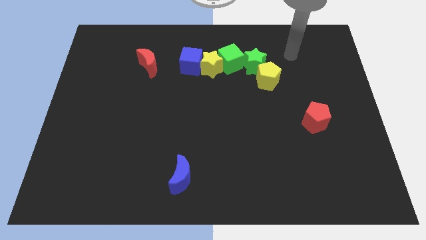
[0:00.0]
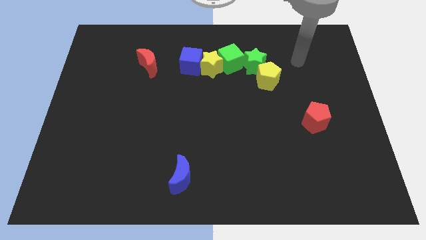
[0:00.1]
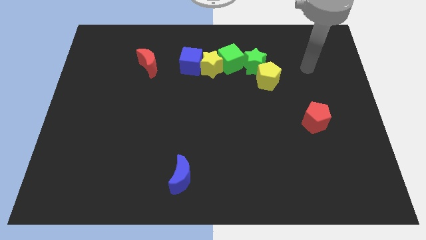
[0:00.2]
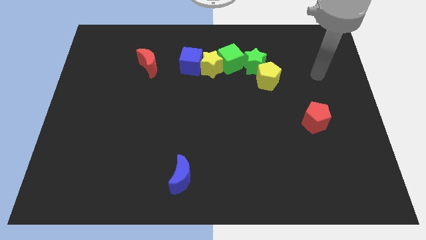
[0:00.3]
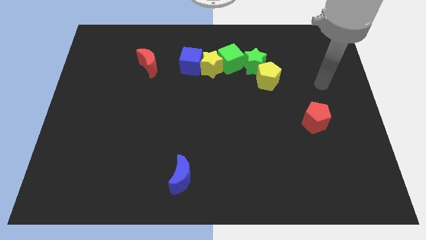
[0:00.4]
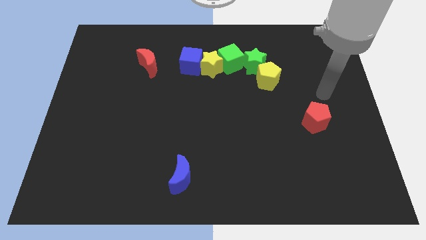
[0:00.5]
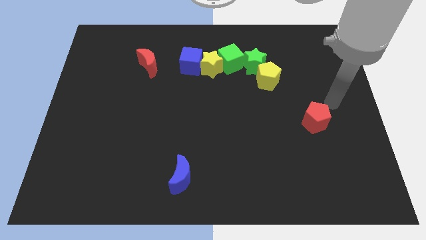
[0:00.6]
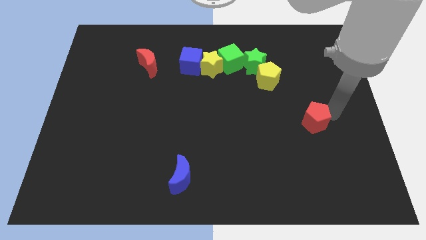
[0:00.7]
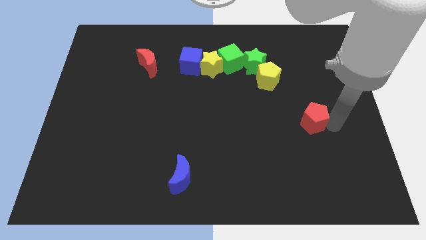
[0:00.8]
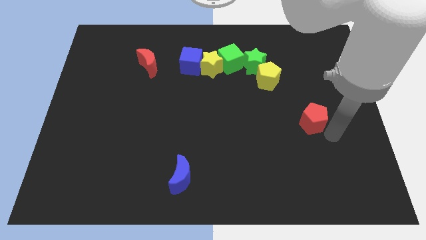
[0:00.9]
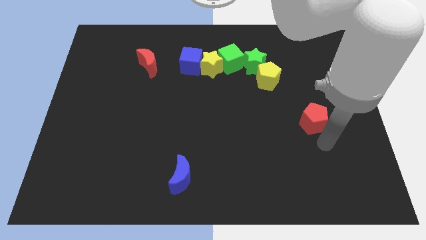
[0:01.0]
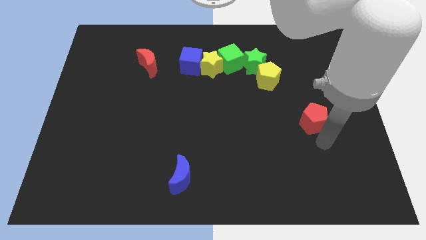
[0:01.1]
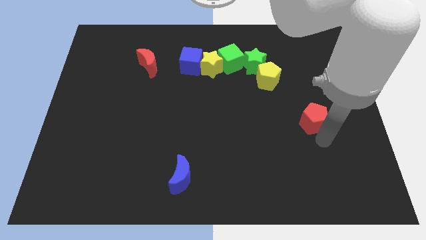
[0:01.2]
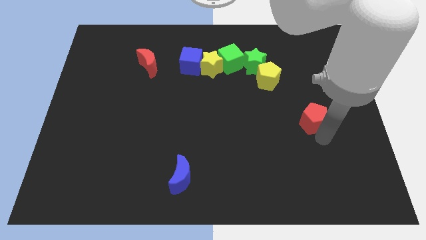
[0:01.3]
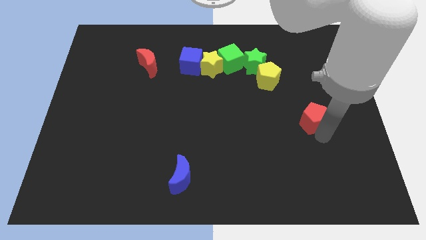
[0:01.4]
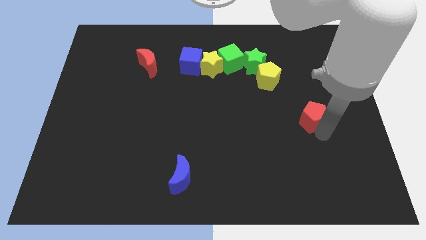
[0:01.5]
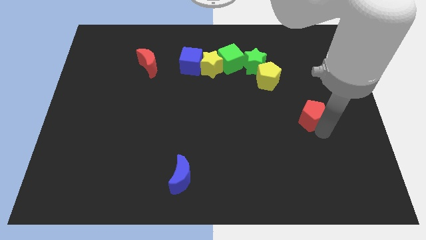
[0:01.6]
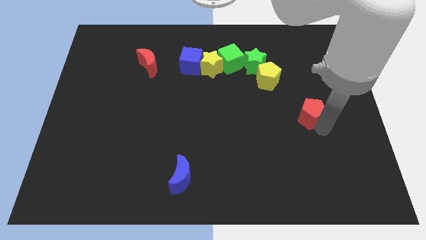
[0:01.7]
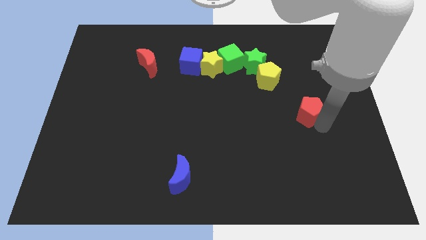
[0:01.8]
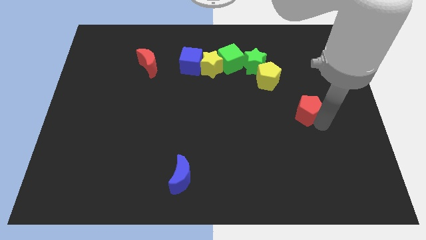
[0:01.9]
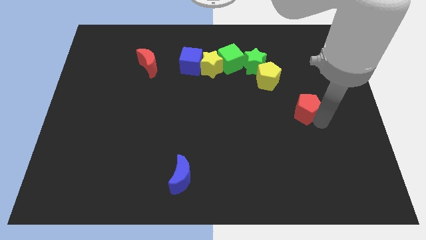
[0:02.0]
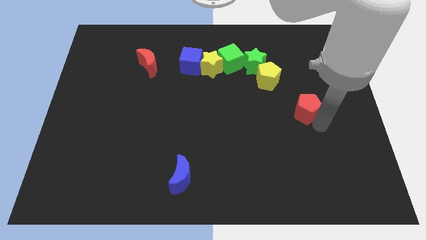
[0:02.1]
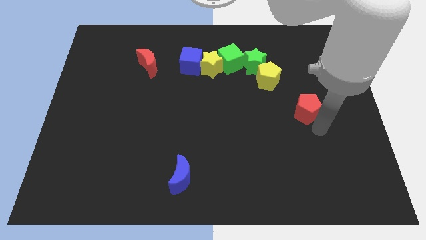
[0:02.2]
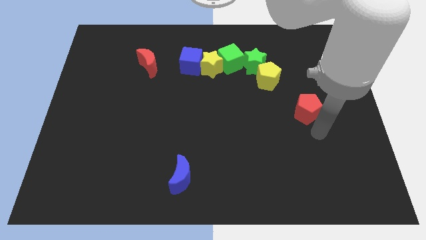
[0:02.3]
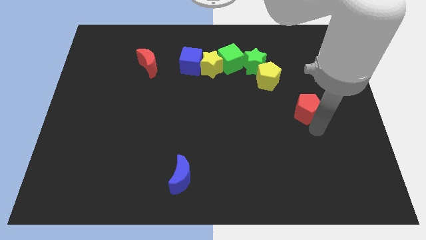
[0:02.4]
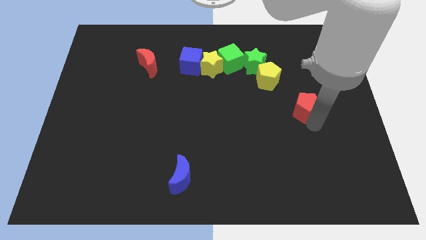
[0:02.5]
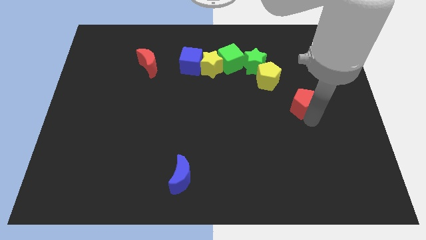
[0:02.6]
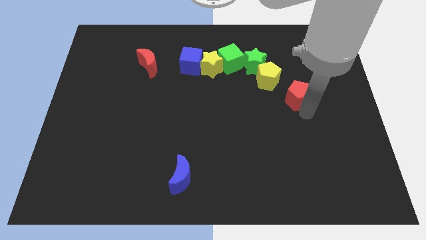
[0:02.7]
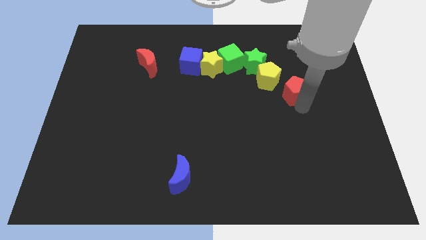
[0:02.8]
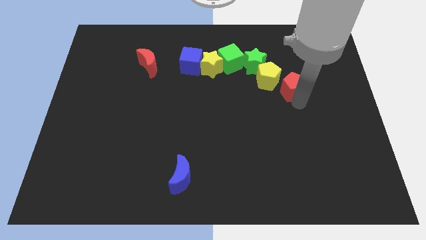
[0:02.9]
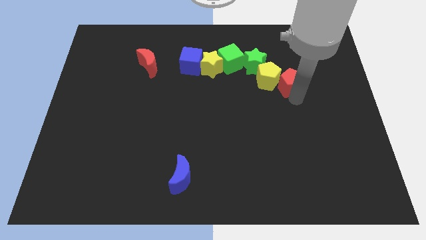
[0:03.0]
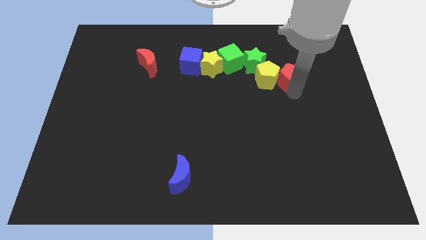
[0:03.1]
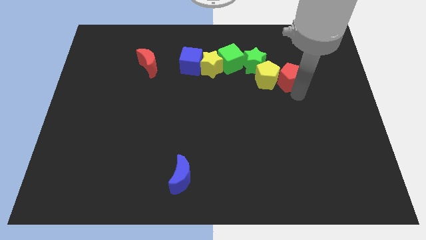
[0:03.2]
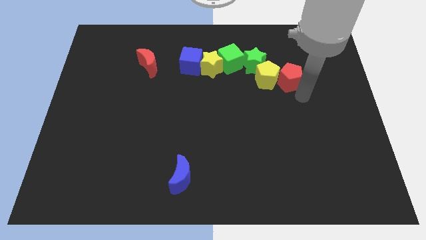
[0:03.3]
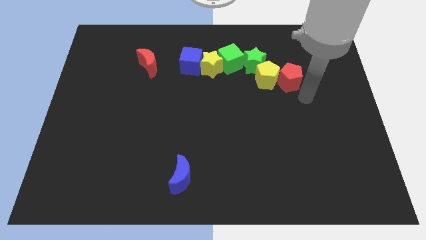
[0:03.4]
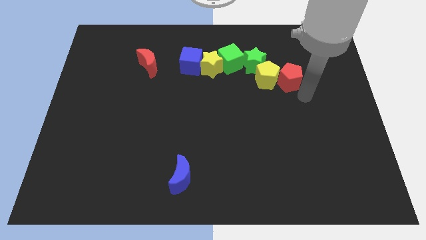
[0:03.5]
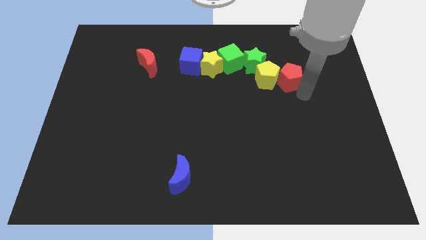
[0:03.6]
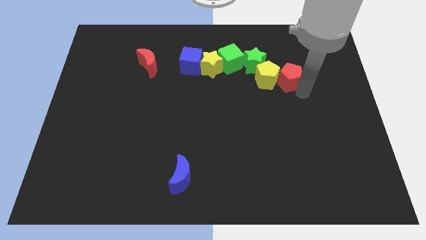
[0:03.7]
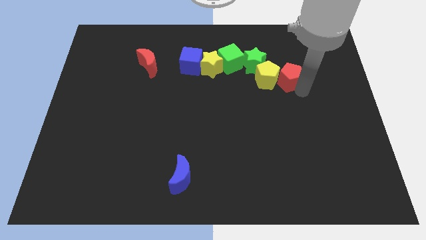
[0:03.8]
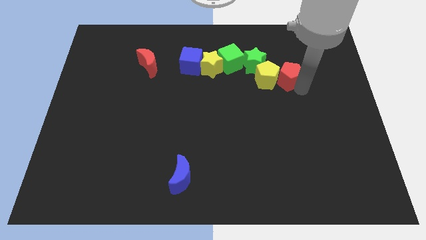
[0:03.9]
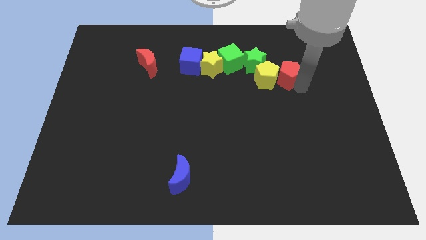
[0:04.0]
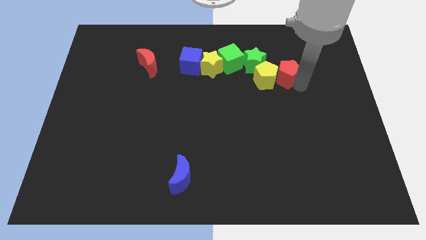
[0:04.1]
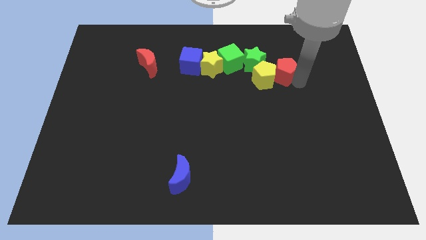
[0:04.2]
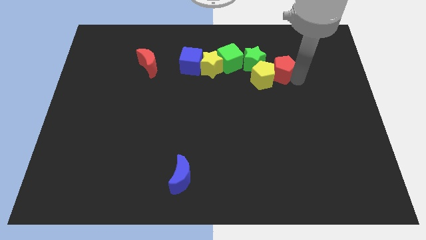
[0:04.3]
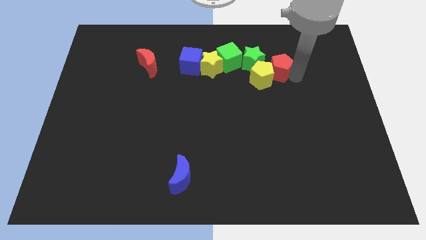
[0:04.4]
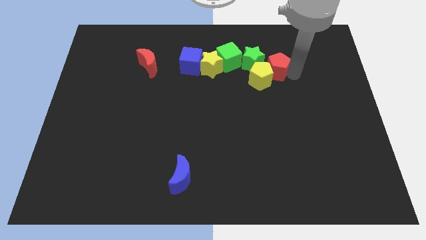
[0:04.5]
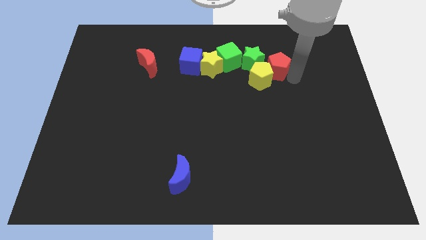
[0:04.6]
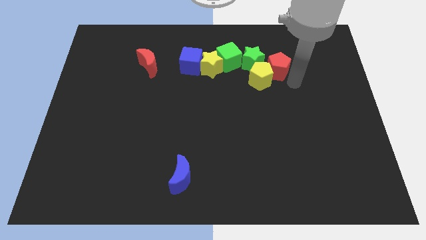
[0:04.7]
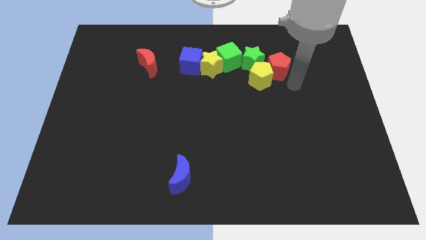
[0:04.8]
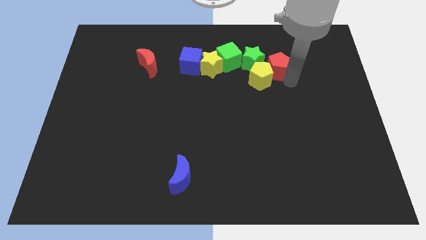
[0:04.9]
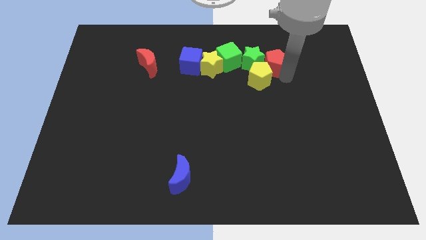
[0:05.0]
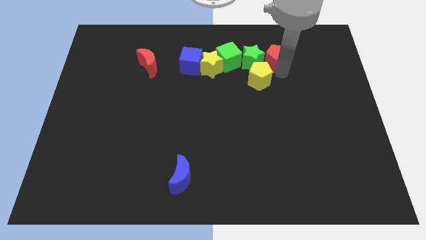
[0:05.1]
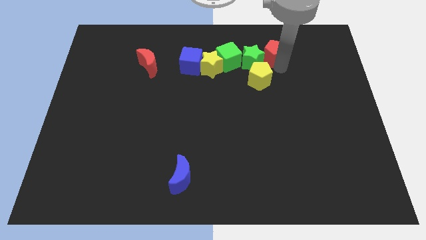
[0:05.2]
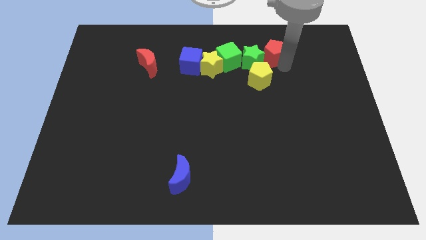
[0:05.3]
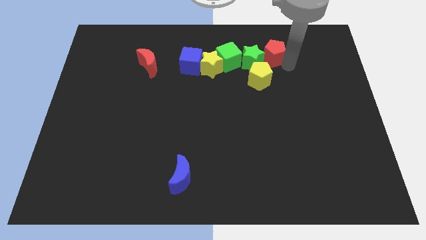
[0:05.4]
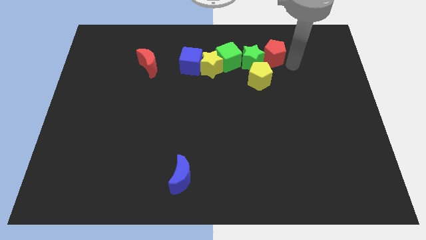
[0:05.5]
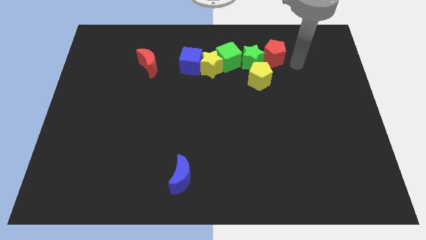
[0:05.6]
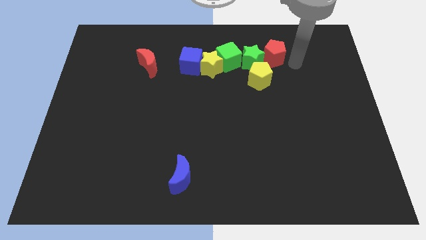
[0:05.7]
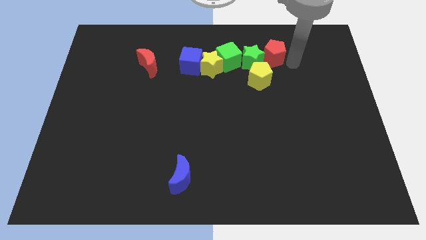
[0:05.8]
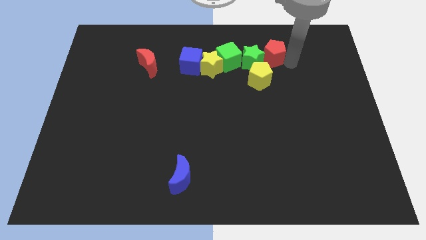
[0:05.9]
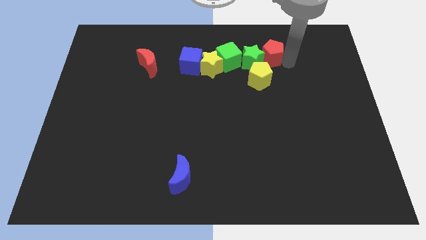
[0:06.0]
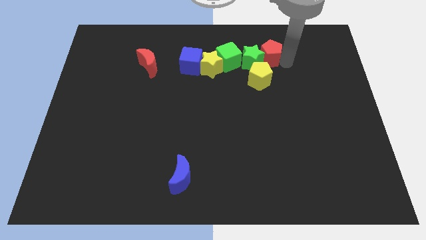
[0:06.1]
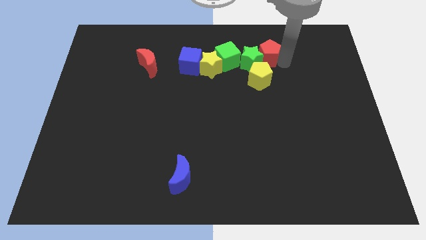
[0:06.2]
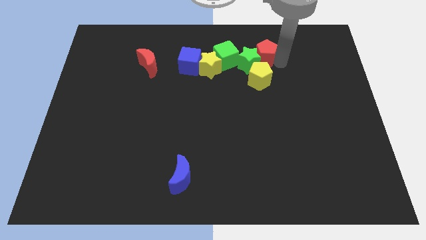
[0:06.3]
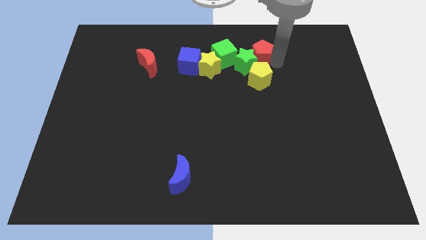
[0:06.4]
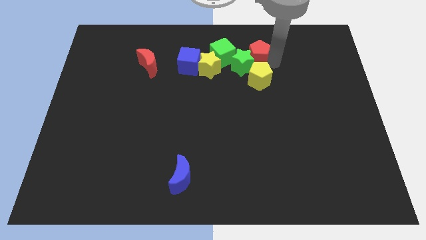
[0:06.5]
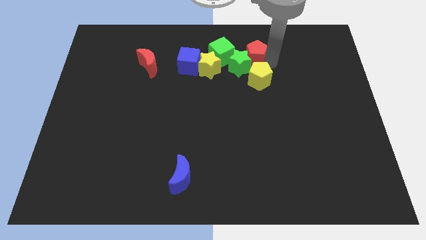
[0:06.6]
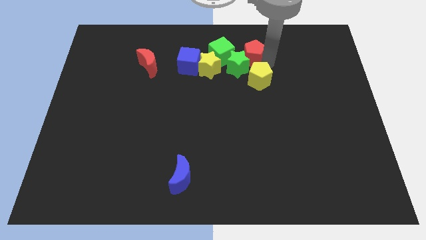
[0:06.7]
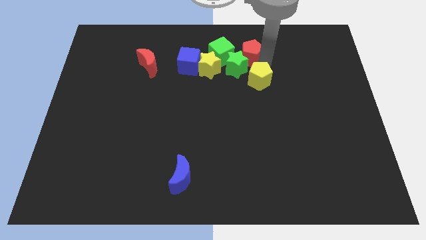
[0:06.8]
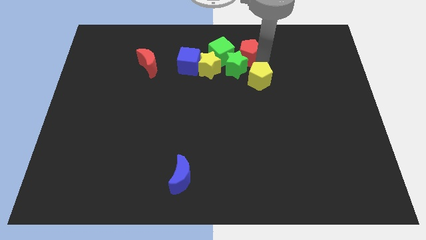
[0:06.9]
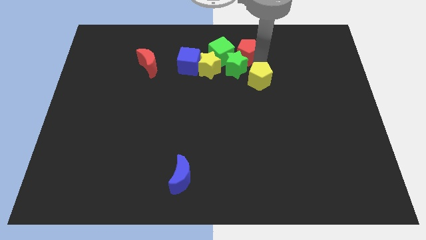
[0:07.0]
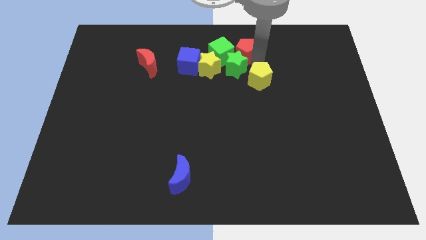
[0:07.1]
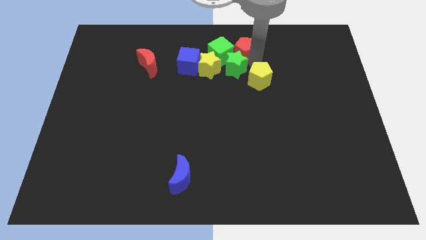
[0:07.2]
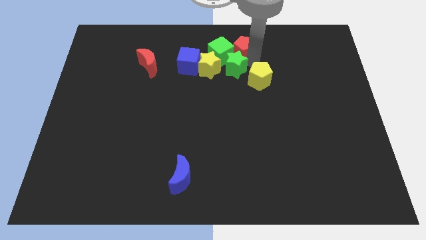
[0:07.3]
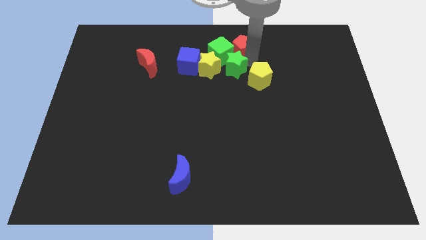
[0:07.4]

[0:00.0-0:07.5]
push the red pentagon to the top

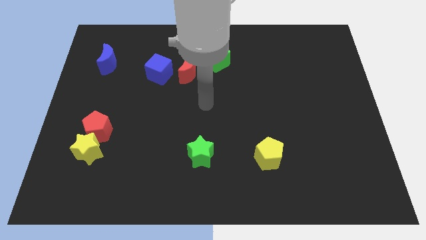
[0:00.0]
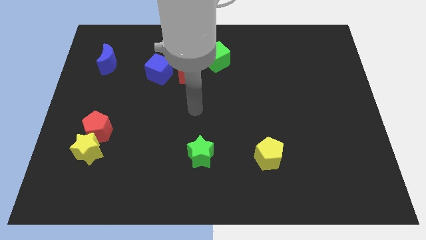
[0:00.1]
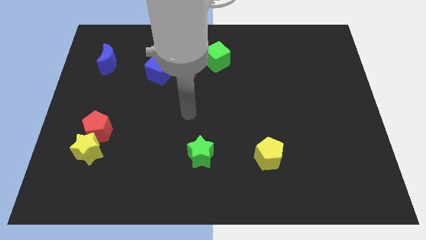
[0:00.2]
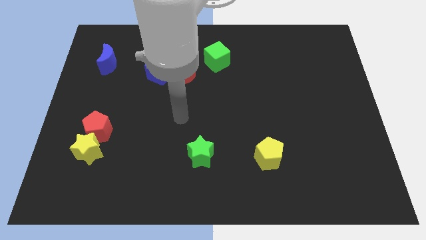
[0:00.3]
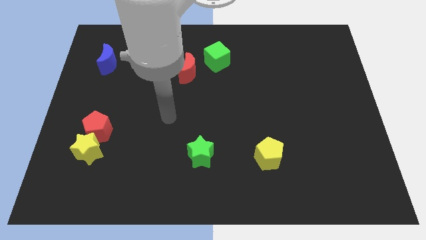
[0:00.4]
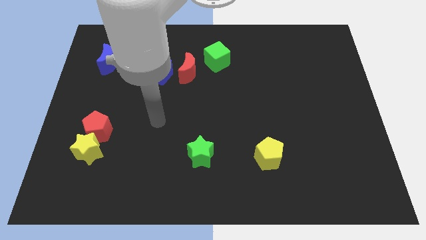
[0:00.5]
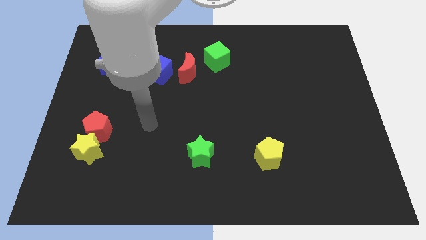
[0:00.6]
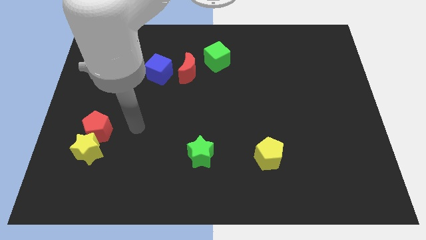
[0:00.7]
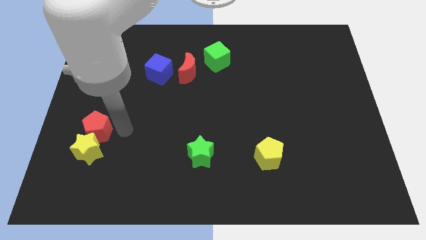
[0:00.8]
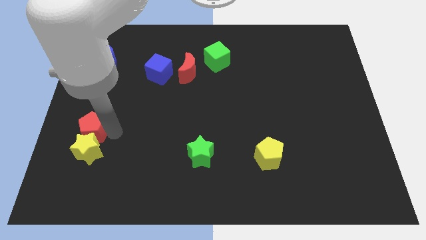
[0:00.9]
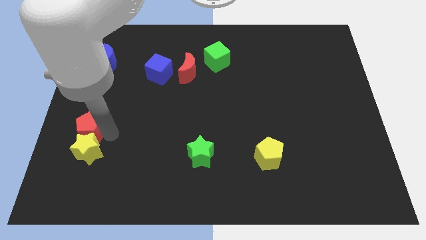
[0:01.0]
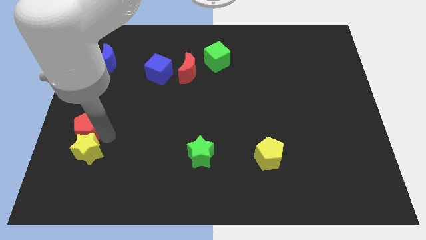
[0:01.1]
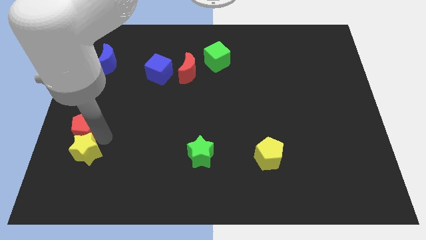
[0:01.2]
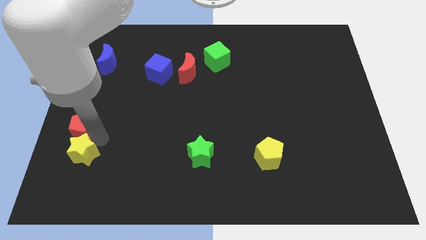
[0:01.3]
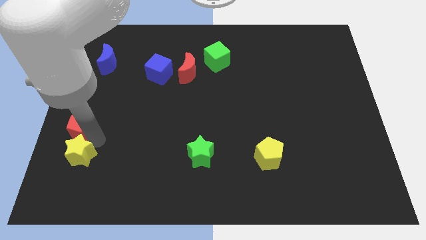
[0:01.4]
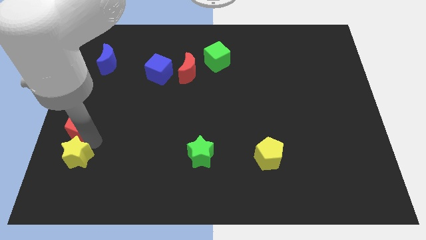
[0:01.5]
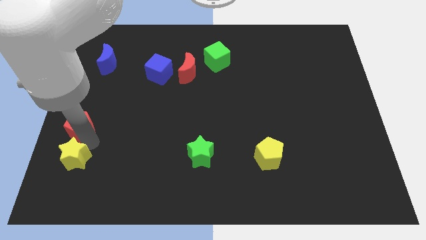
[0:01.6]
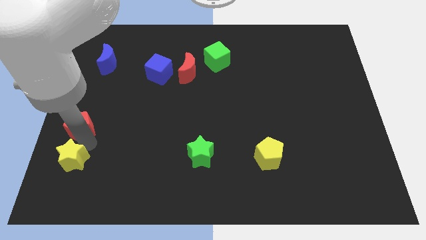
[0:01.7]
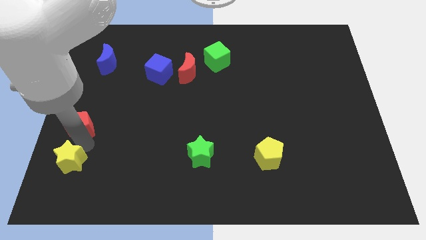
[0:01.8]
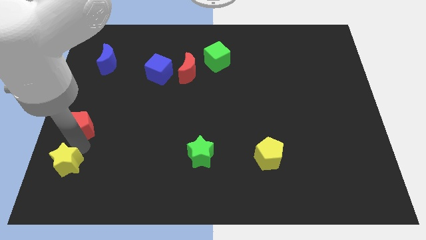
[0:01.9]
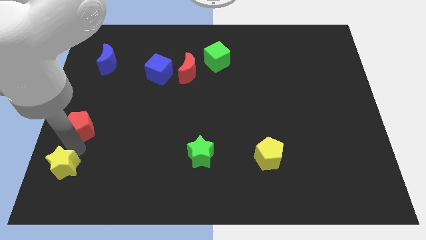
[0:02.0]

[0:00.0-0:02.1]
slide the yellow star to the bottom left corner
